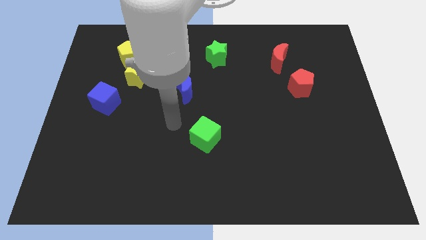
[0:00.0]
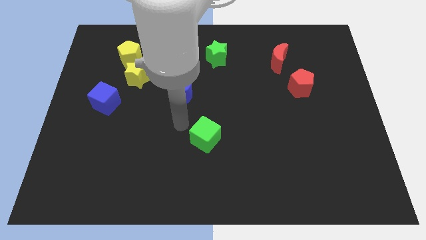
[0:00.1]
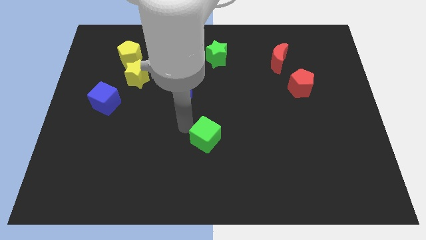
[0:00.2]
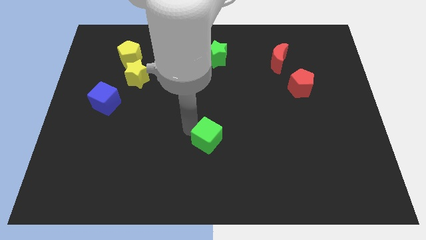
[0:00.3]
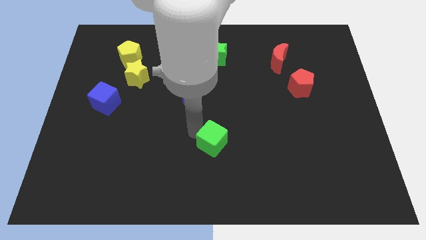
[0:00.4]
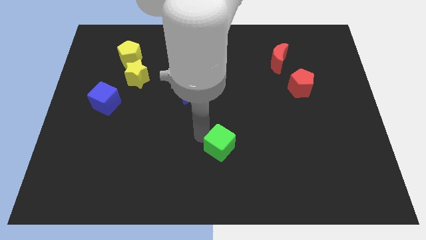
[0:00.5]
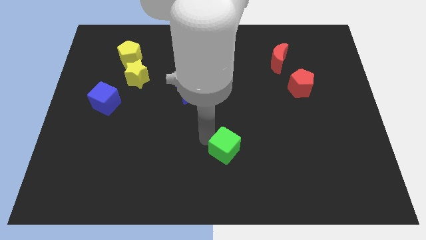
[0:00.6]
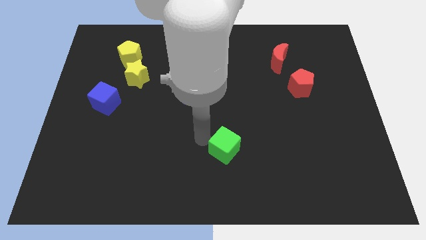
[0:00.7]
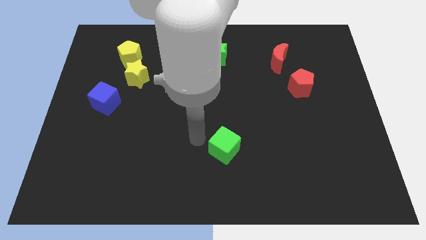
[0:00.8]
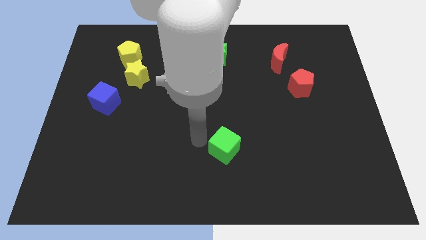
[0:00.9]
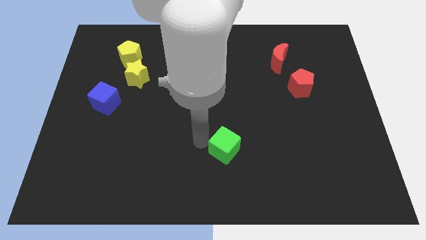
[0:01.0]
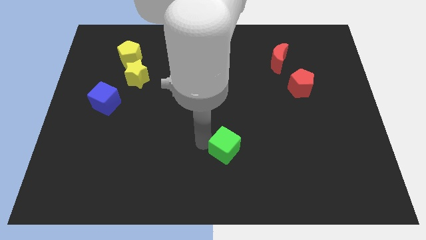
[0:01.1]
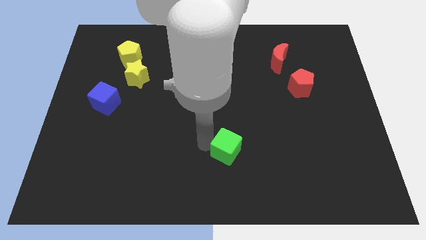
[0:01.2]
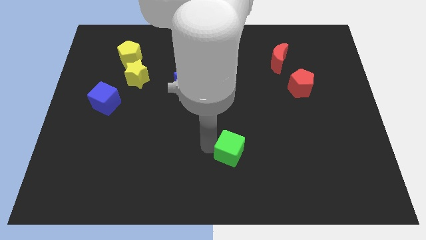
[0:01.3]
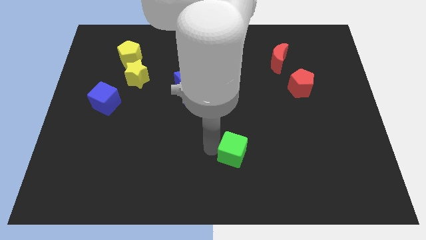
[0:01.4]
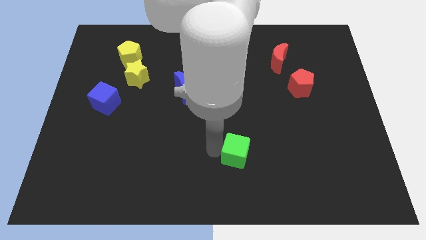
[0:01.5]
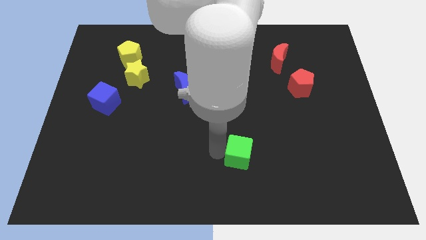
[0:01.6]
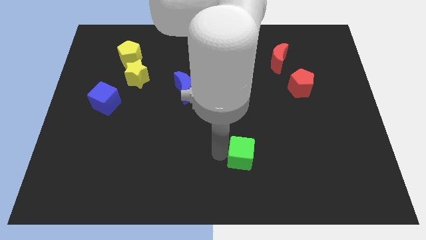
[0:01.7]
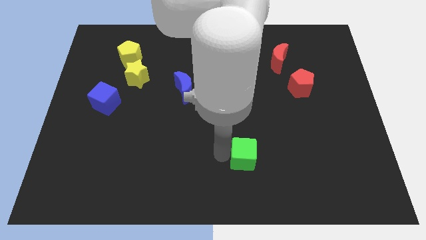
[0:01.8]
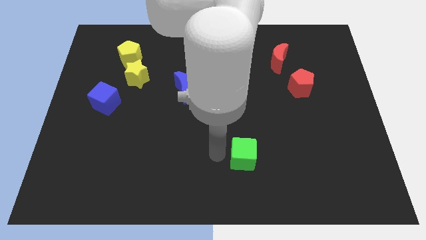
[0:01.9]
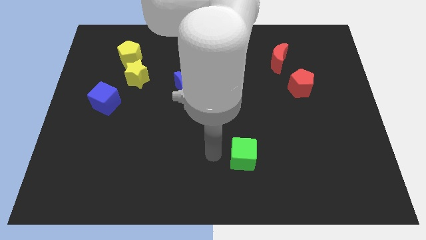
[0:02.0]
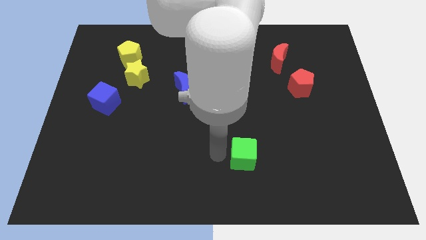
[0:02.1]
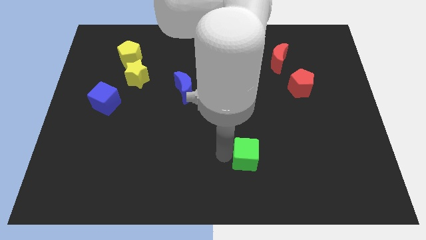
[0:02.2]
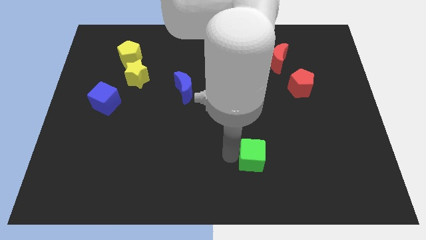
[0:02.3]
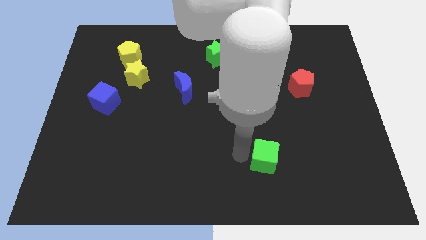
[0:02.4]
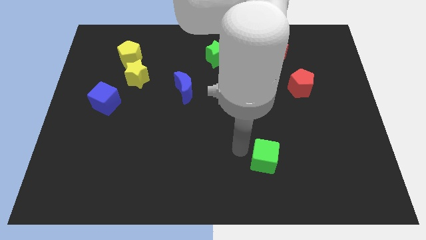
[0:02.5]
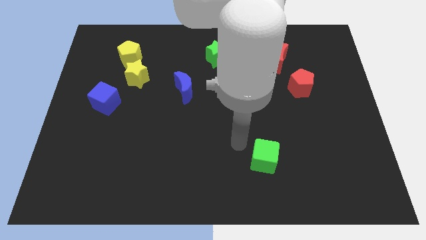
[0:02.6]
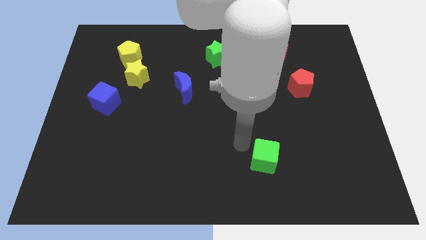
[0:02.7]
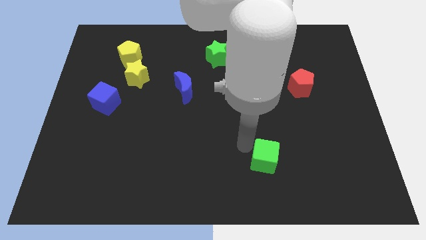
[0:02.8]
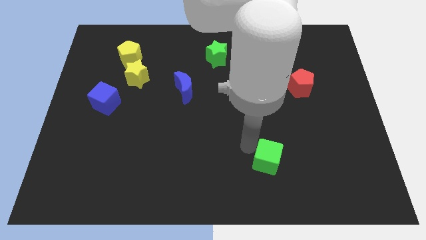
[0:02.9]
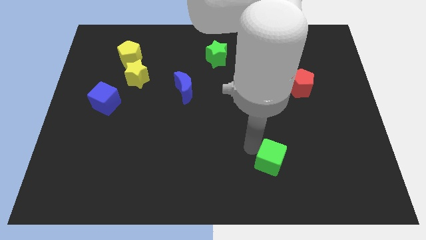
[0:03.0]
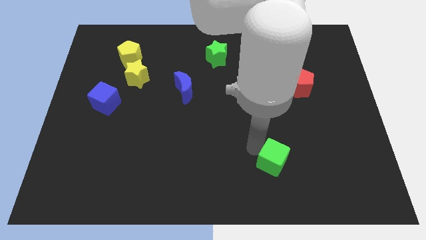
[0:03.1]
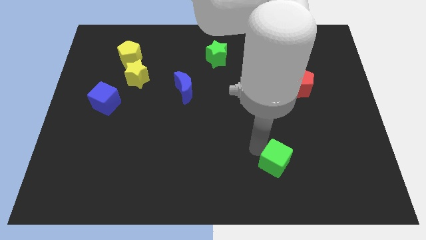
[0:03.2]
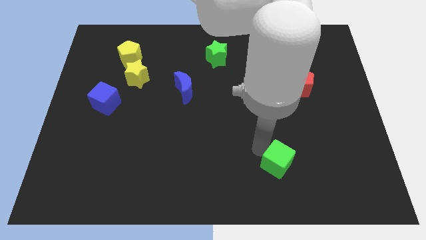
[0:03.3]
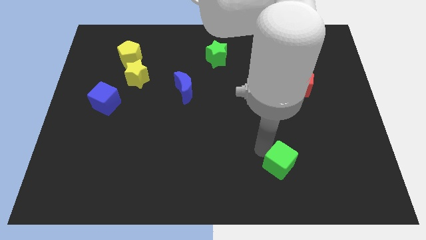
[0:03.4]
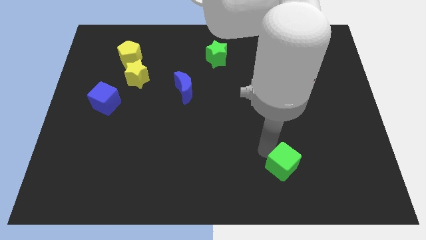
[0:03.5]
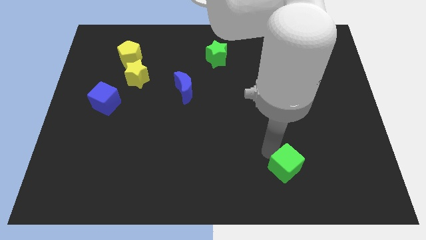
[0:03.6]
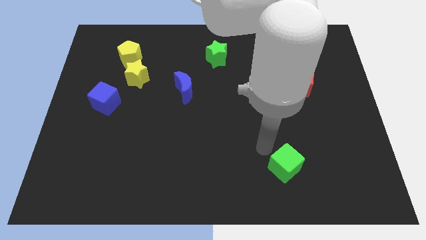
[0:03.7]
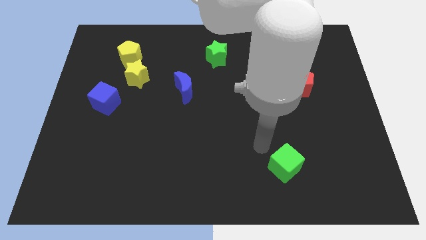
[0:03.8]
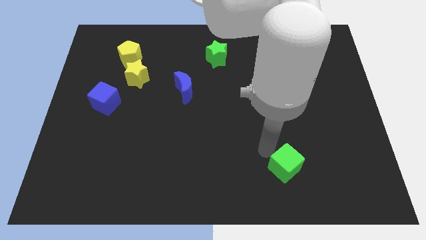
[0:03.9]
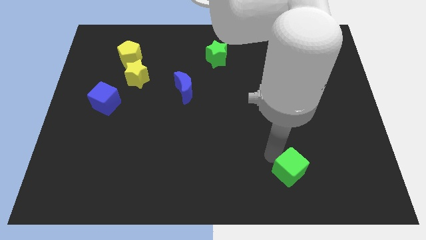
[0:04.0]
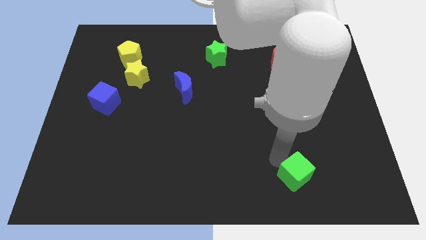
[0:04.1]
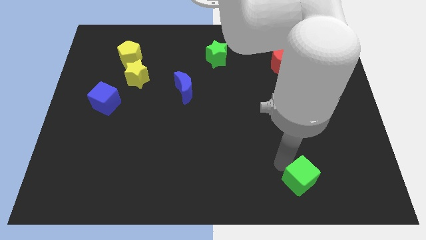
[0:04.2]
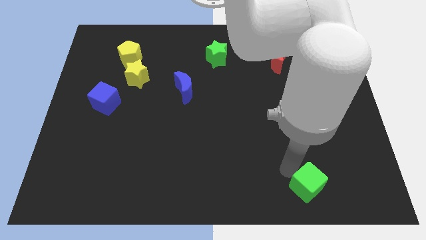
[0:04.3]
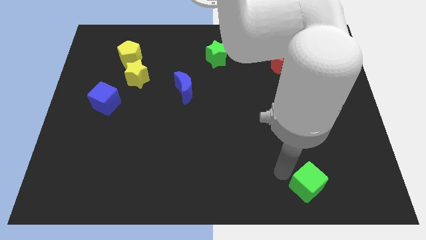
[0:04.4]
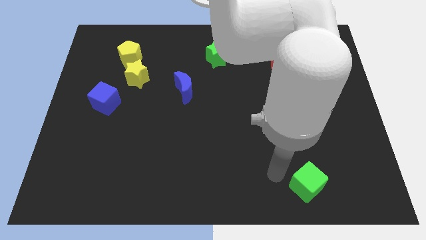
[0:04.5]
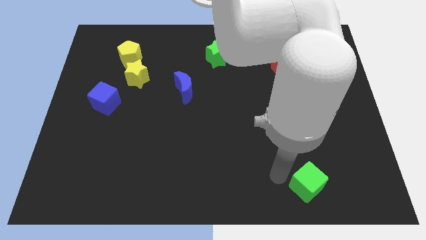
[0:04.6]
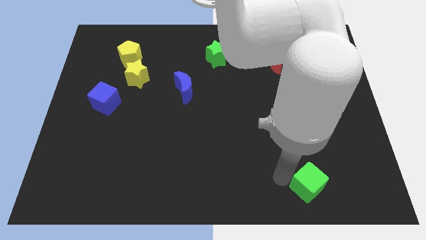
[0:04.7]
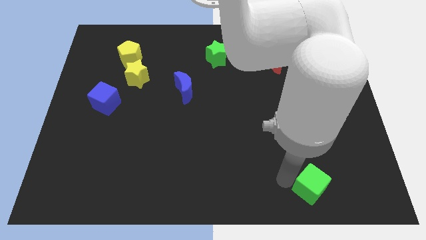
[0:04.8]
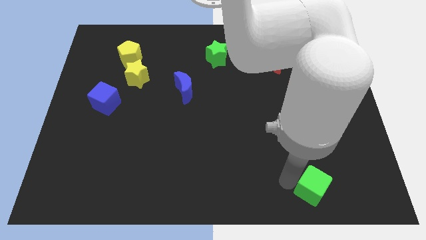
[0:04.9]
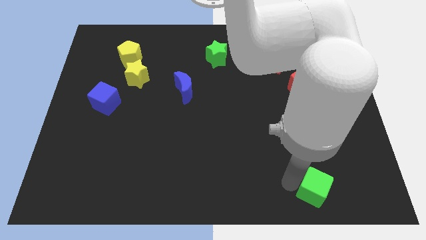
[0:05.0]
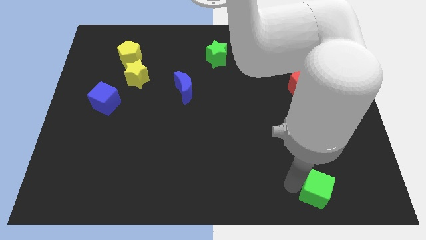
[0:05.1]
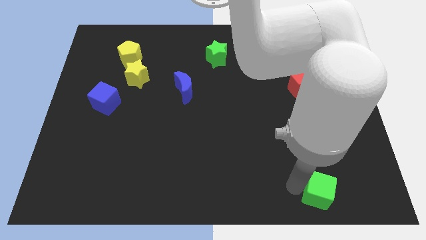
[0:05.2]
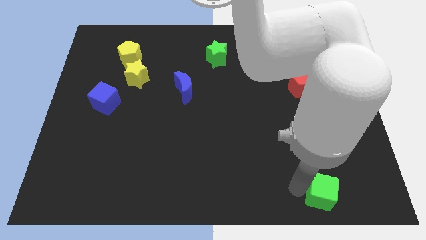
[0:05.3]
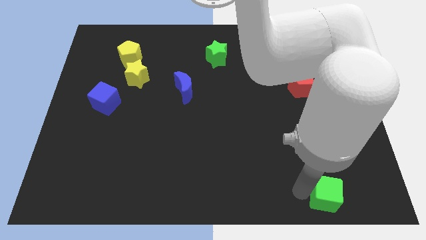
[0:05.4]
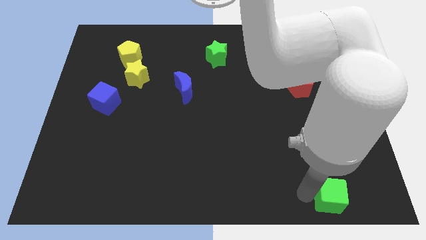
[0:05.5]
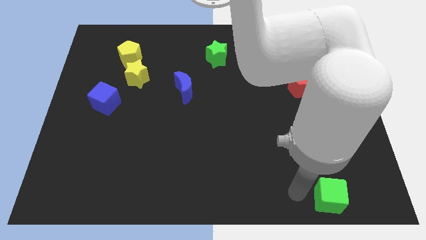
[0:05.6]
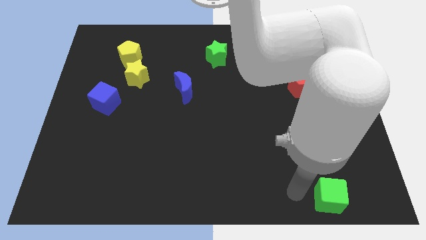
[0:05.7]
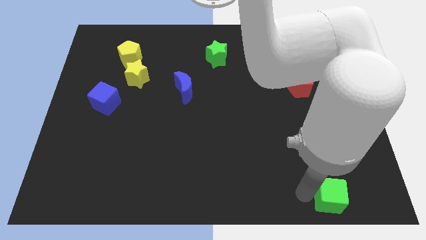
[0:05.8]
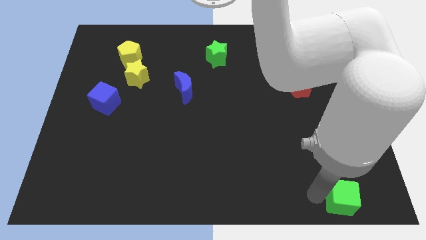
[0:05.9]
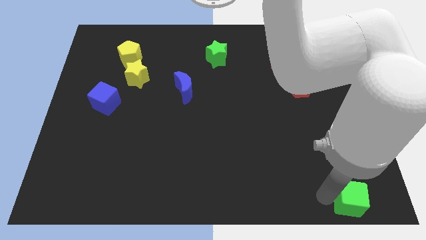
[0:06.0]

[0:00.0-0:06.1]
slide the green cube to the bottom right of the board

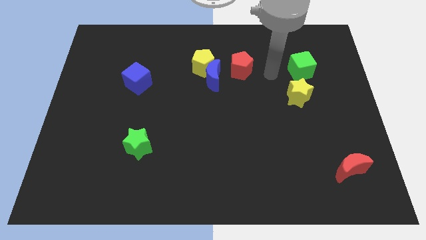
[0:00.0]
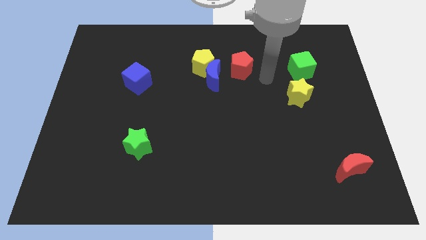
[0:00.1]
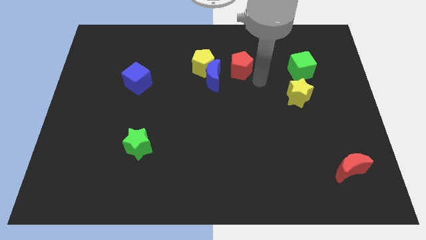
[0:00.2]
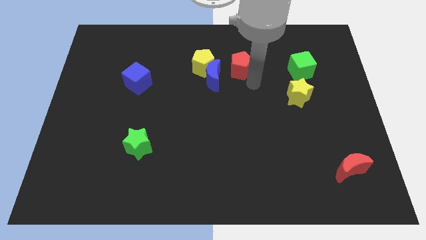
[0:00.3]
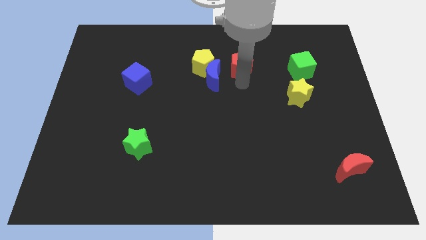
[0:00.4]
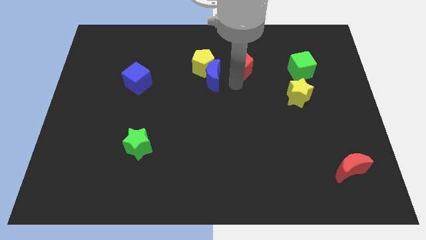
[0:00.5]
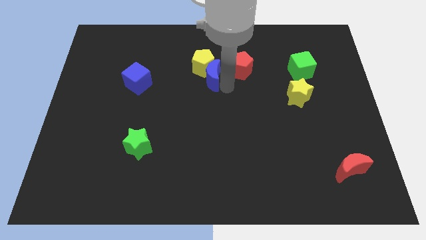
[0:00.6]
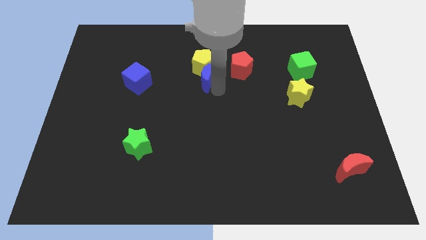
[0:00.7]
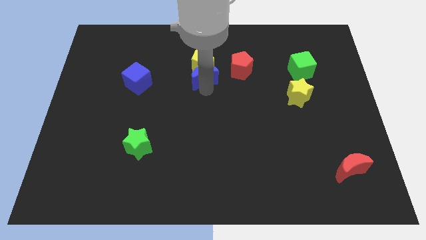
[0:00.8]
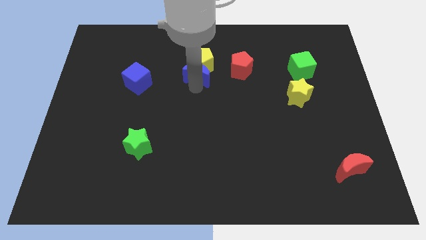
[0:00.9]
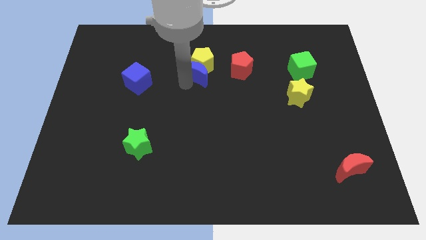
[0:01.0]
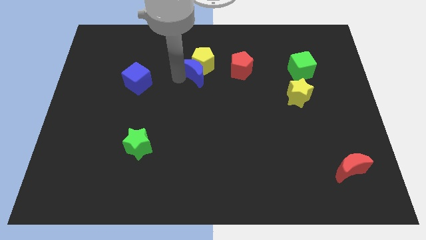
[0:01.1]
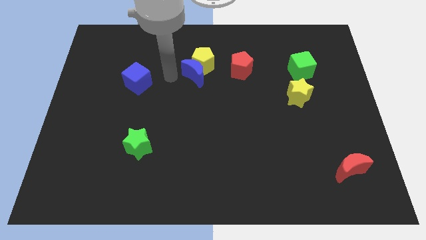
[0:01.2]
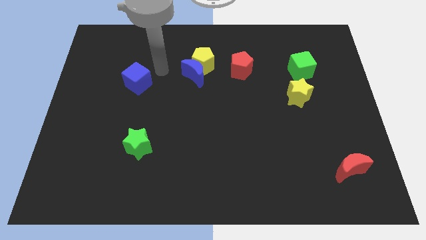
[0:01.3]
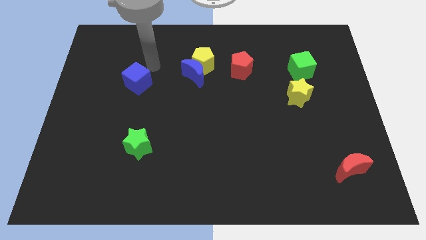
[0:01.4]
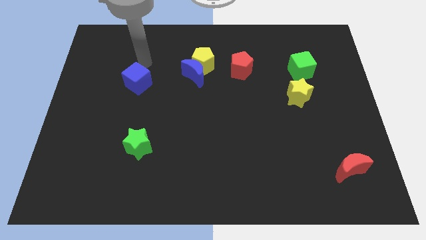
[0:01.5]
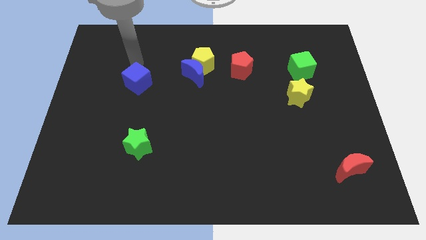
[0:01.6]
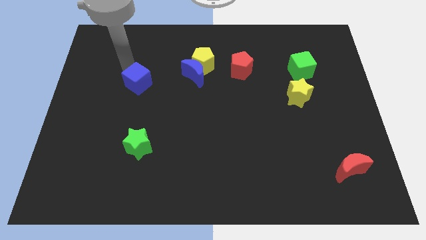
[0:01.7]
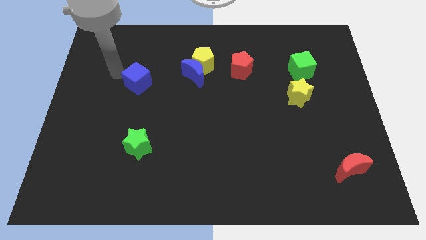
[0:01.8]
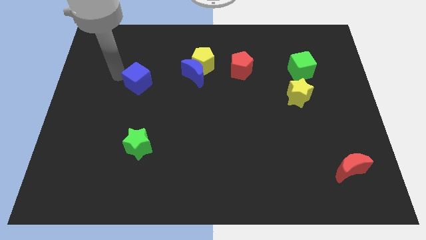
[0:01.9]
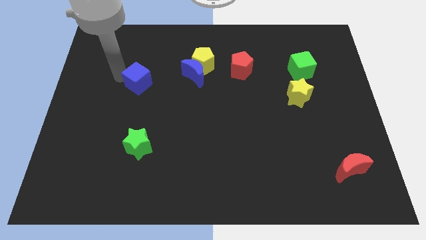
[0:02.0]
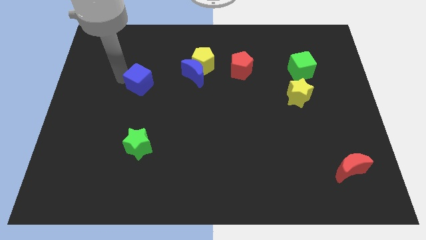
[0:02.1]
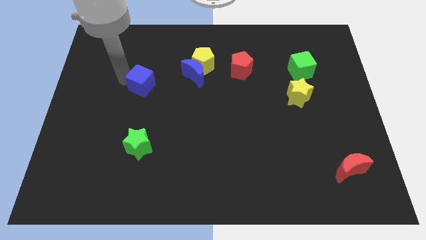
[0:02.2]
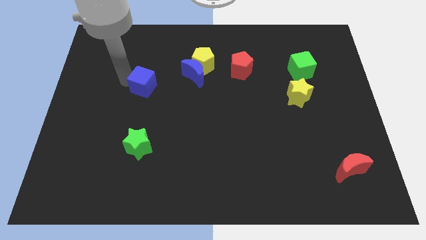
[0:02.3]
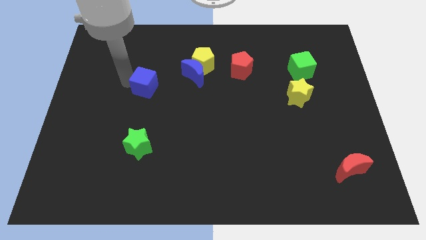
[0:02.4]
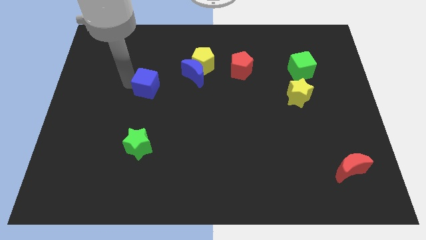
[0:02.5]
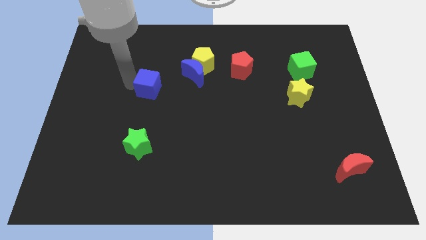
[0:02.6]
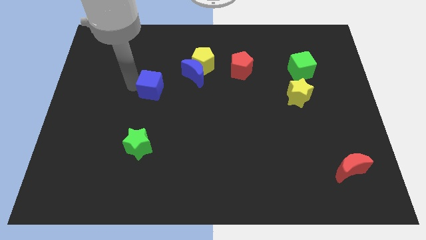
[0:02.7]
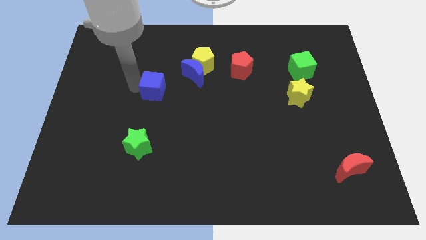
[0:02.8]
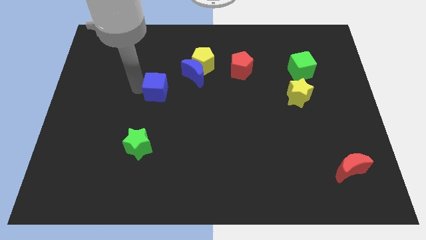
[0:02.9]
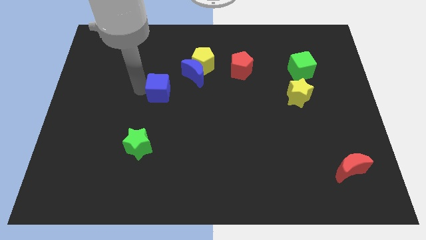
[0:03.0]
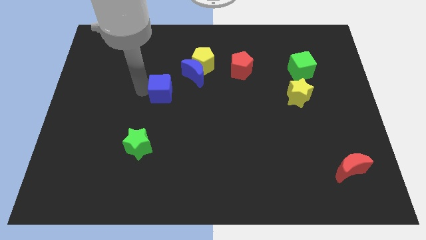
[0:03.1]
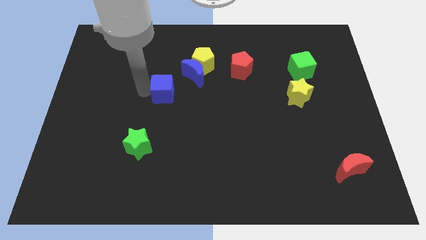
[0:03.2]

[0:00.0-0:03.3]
push the blue cube to the middle
